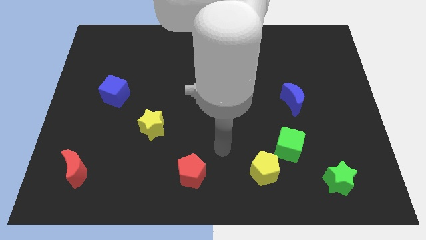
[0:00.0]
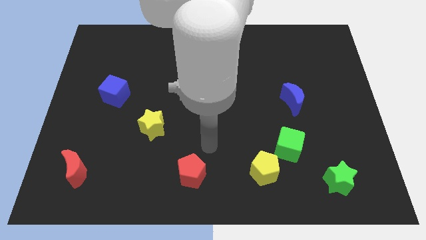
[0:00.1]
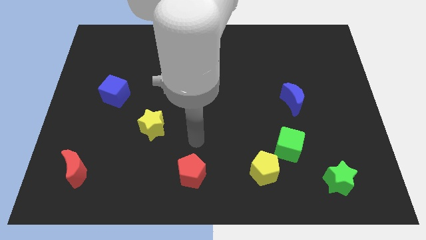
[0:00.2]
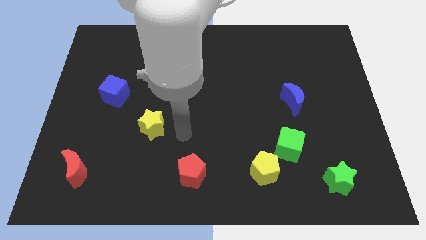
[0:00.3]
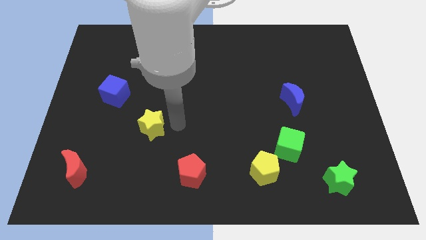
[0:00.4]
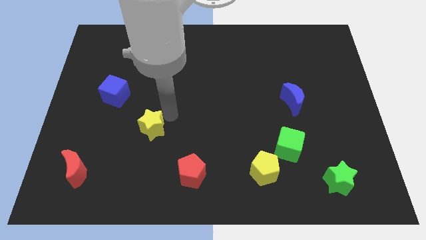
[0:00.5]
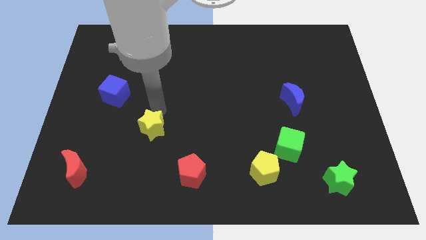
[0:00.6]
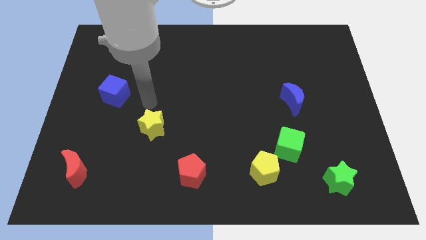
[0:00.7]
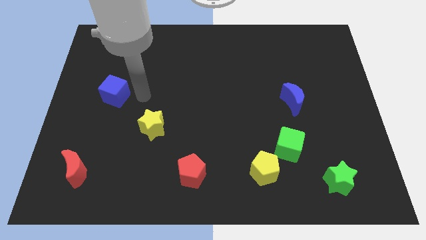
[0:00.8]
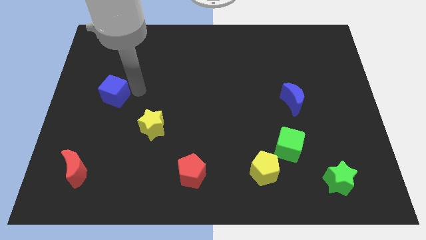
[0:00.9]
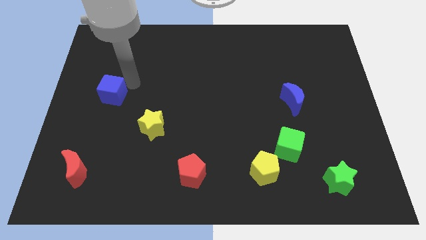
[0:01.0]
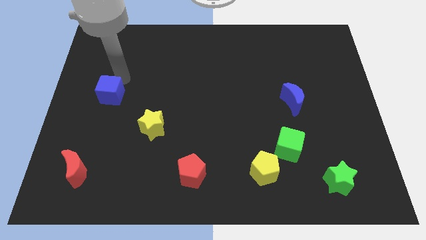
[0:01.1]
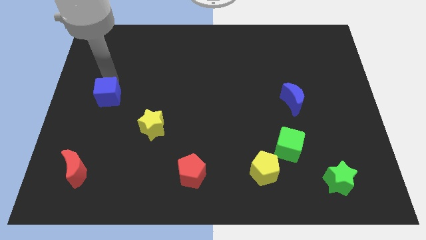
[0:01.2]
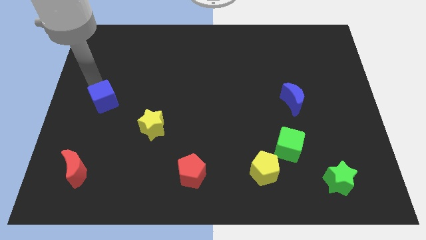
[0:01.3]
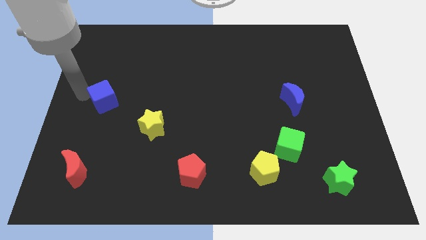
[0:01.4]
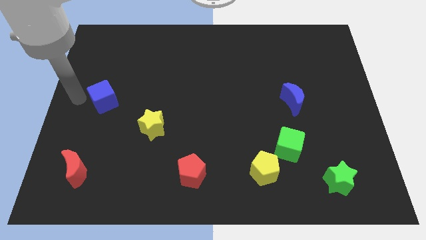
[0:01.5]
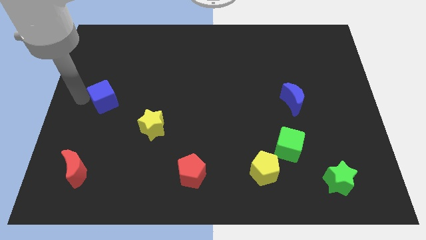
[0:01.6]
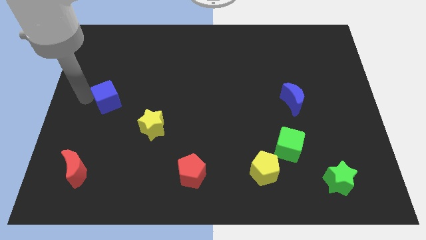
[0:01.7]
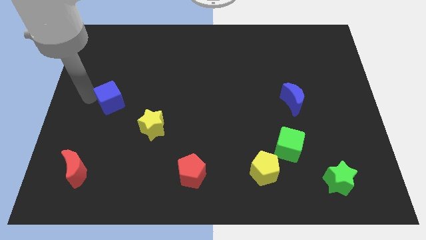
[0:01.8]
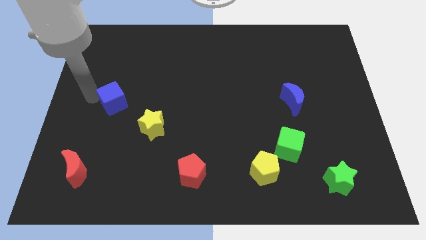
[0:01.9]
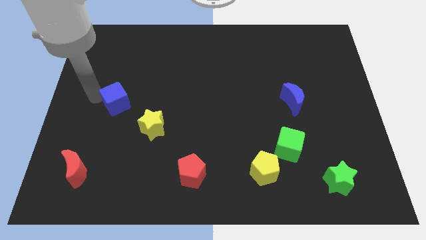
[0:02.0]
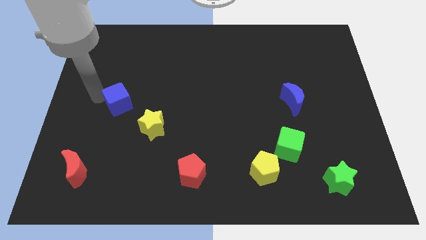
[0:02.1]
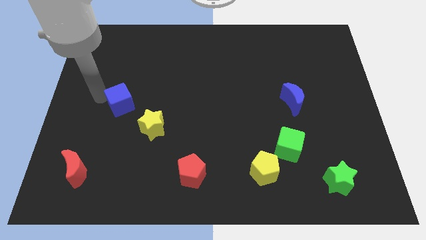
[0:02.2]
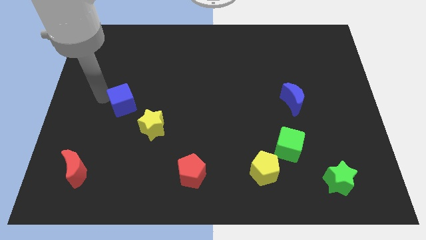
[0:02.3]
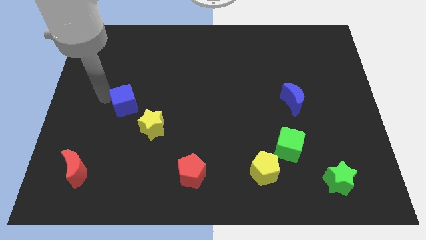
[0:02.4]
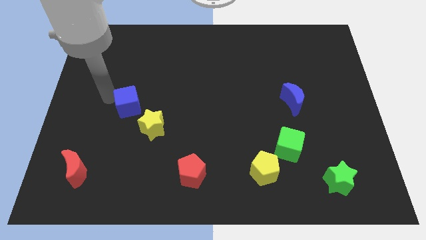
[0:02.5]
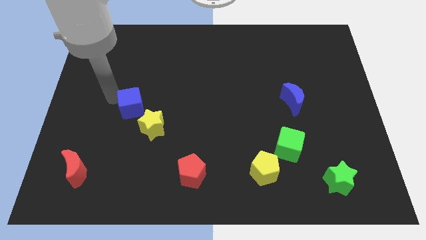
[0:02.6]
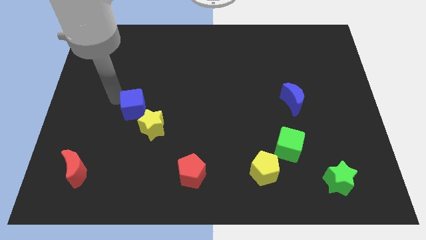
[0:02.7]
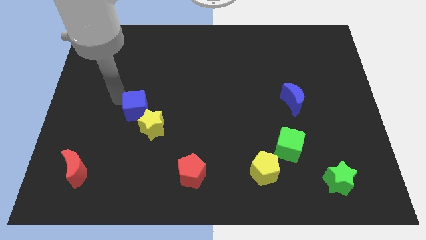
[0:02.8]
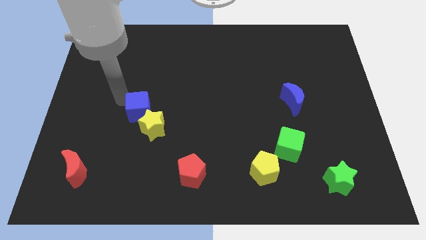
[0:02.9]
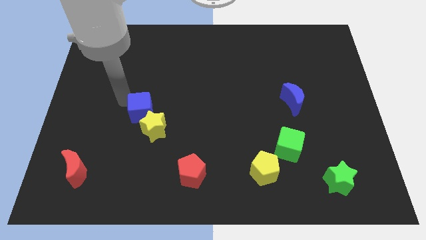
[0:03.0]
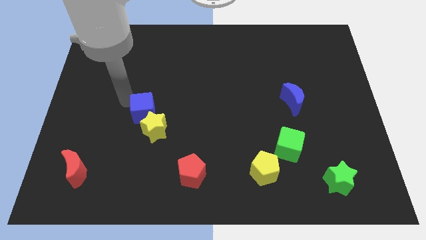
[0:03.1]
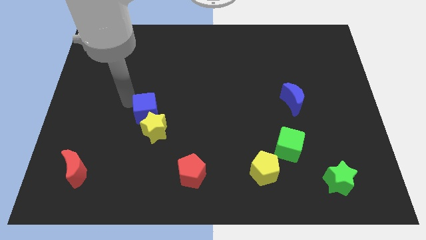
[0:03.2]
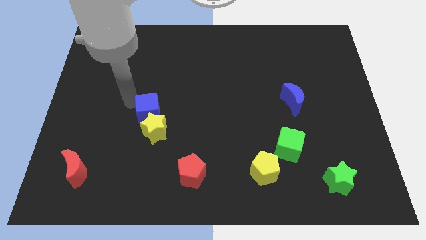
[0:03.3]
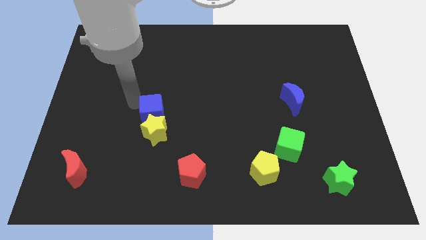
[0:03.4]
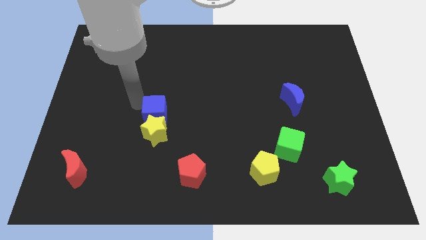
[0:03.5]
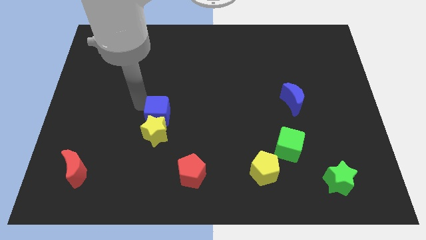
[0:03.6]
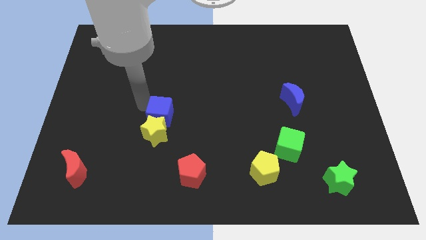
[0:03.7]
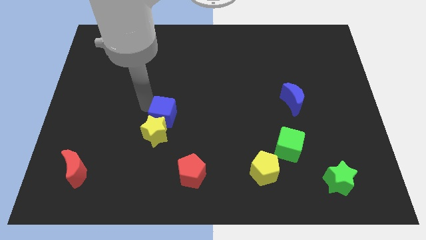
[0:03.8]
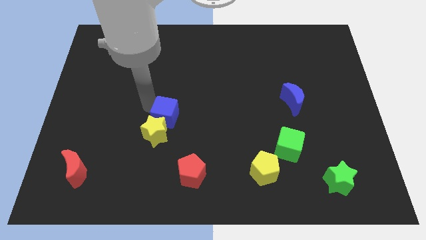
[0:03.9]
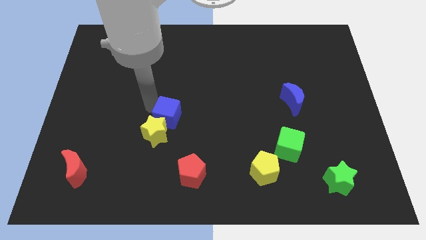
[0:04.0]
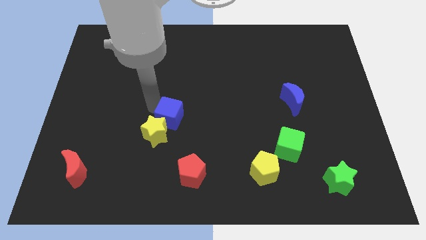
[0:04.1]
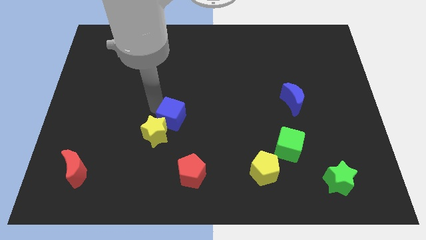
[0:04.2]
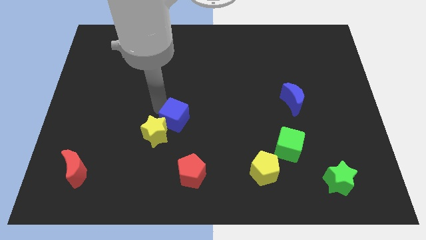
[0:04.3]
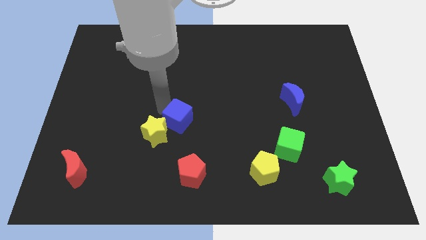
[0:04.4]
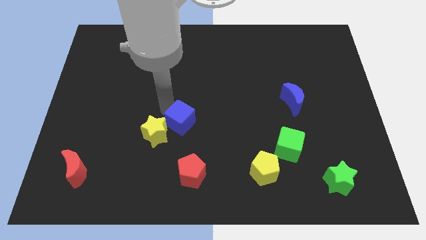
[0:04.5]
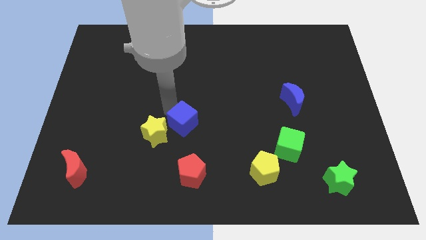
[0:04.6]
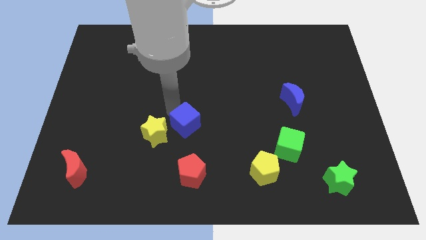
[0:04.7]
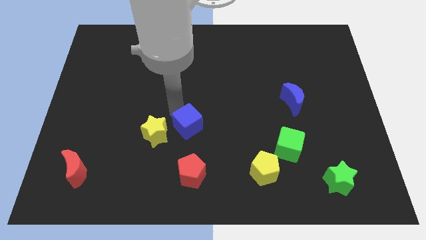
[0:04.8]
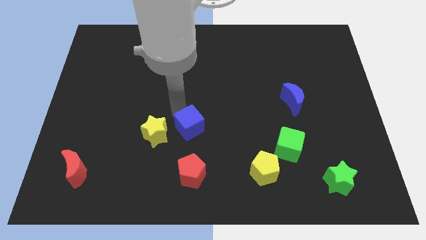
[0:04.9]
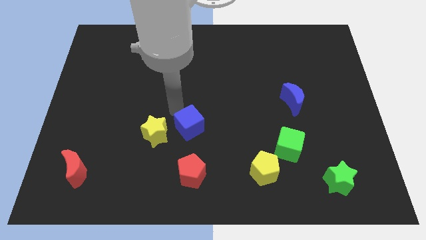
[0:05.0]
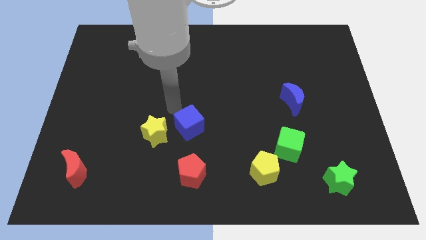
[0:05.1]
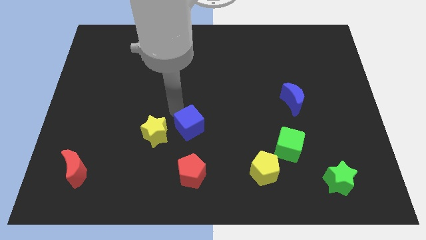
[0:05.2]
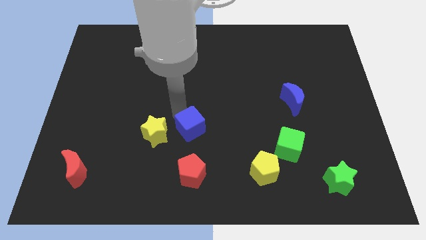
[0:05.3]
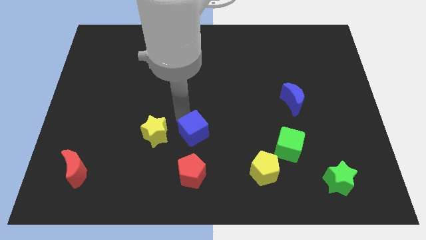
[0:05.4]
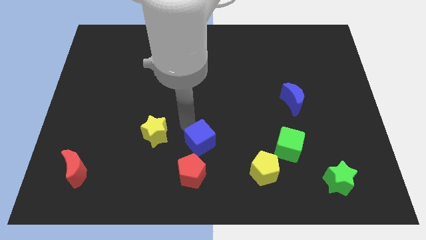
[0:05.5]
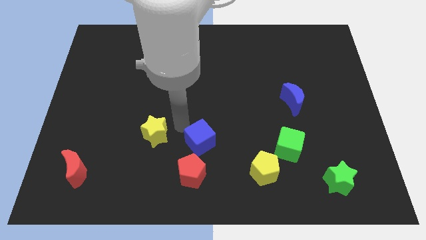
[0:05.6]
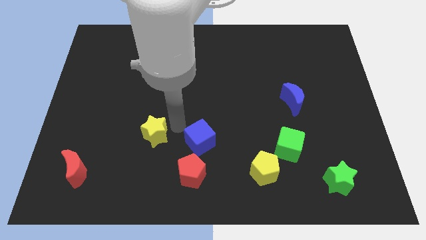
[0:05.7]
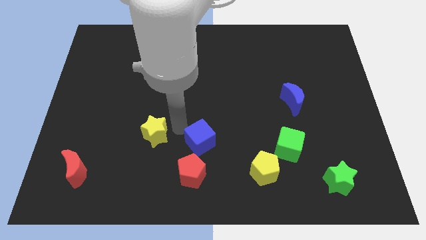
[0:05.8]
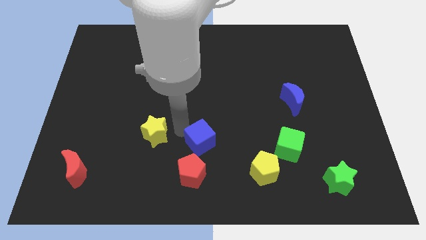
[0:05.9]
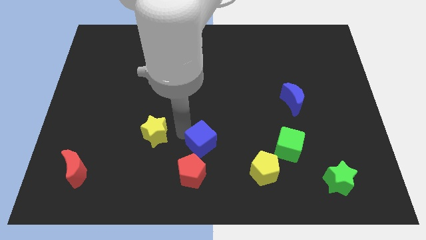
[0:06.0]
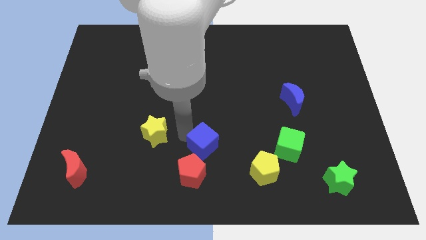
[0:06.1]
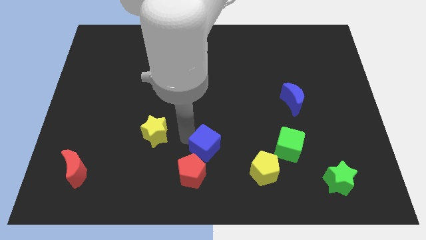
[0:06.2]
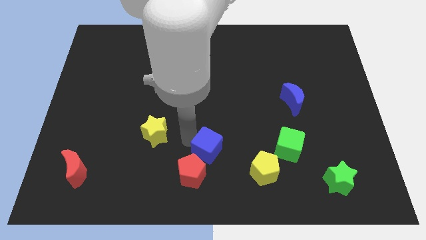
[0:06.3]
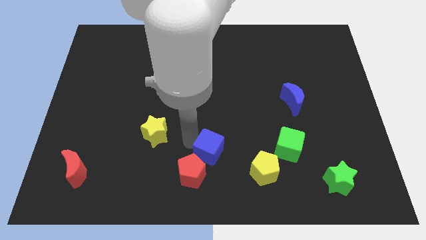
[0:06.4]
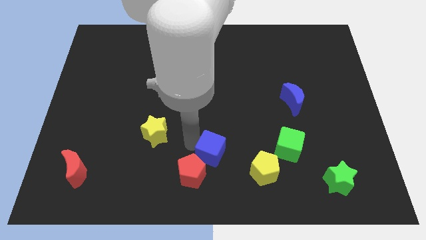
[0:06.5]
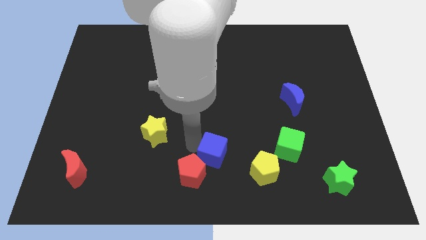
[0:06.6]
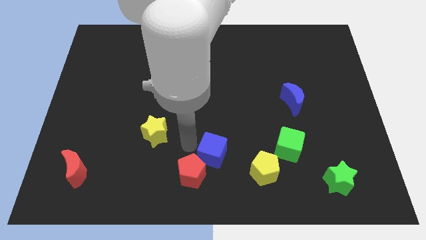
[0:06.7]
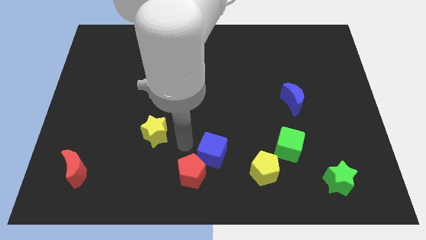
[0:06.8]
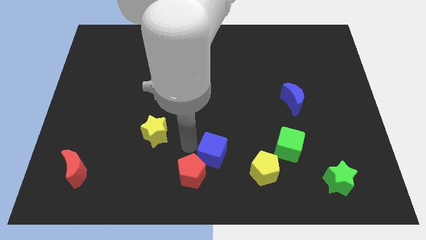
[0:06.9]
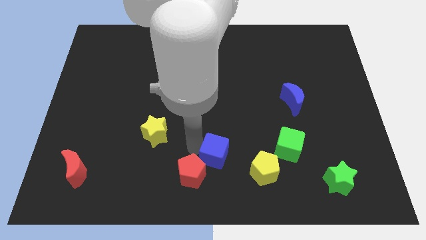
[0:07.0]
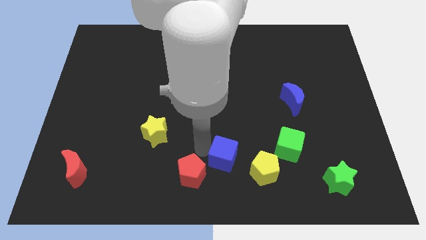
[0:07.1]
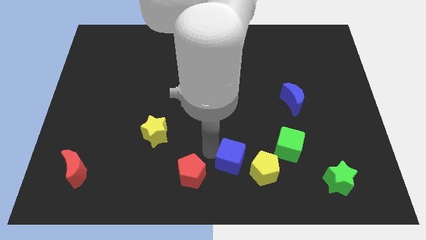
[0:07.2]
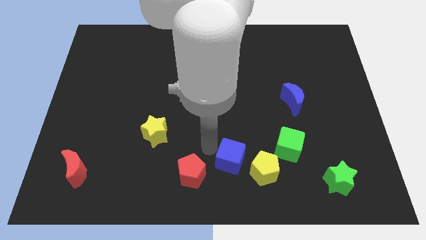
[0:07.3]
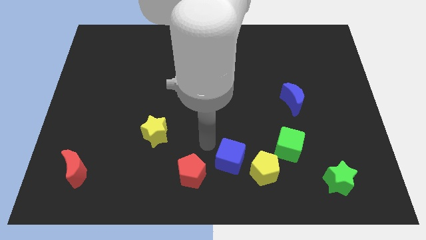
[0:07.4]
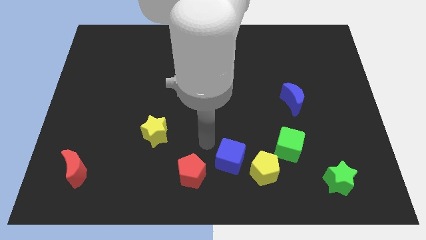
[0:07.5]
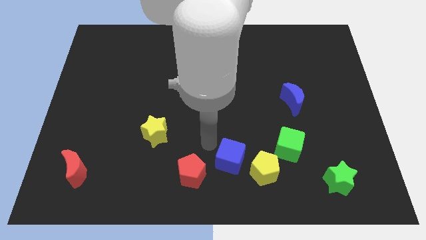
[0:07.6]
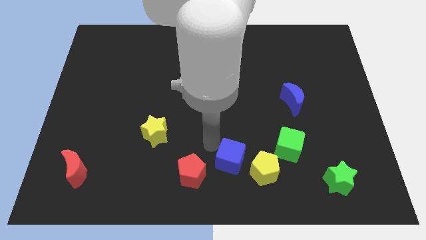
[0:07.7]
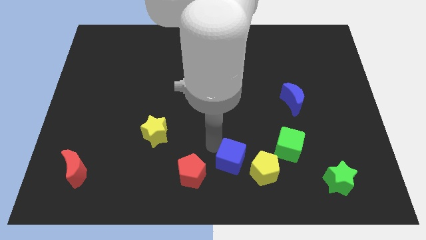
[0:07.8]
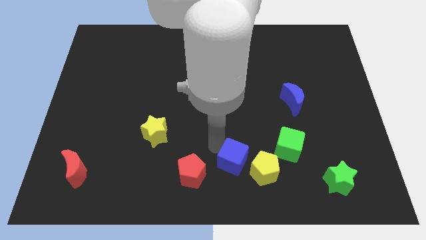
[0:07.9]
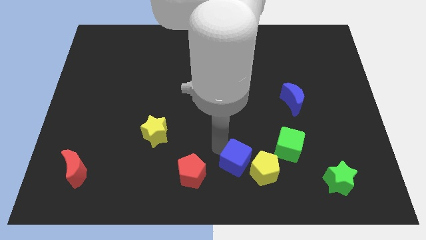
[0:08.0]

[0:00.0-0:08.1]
put the blue cube close to the yellow pentagon
